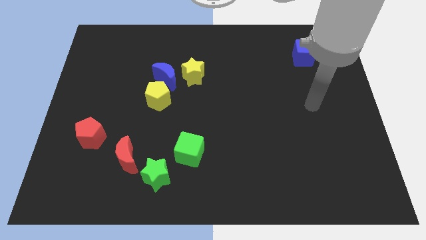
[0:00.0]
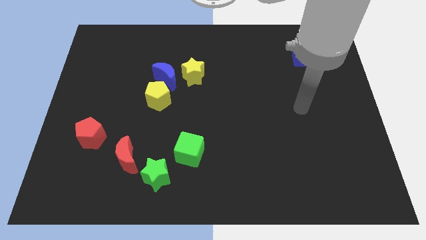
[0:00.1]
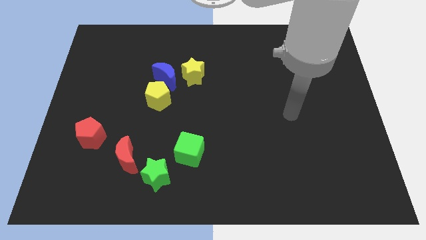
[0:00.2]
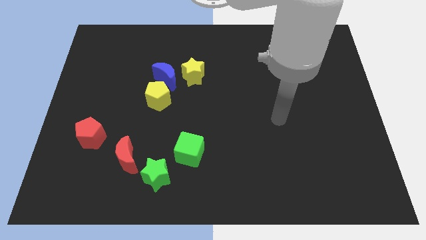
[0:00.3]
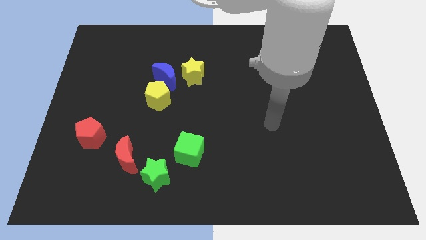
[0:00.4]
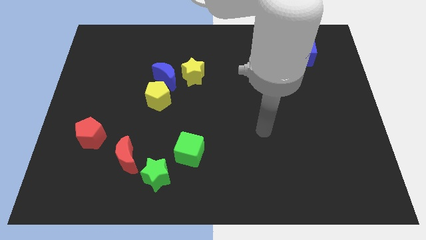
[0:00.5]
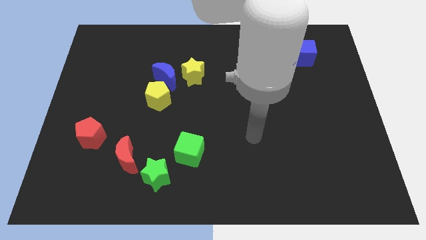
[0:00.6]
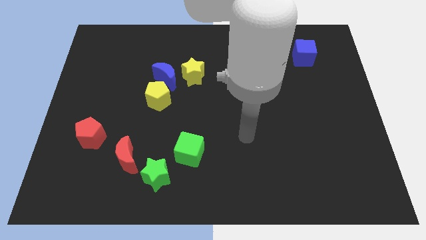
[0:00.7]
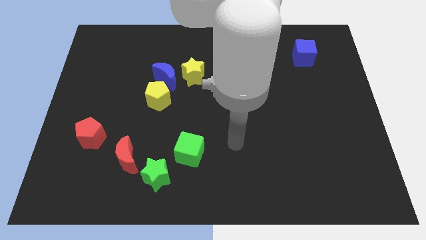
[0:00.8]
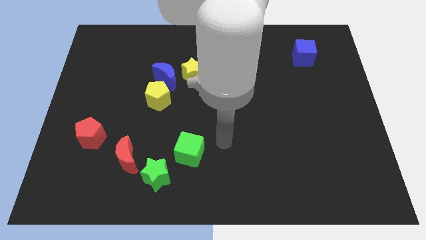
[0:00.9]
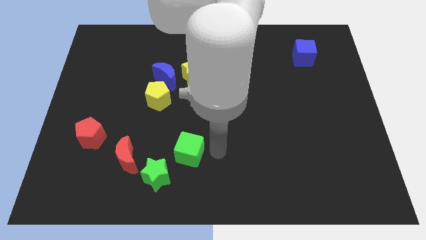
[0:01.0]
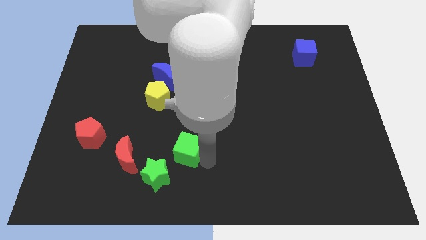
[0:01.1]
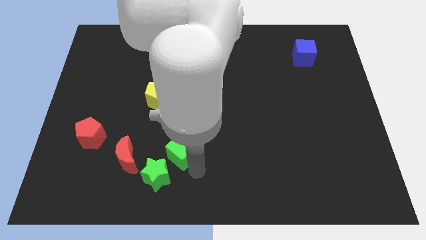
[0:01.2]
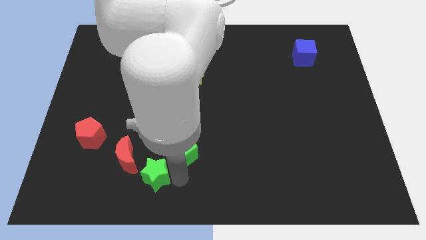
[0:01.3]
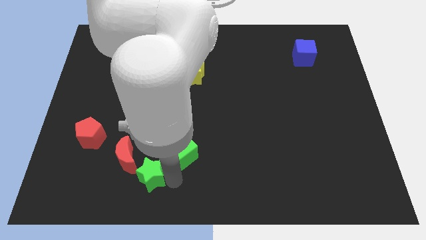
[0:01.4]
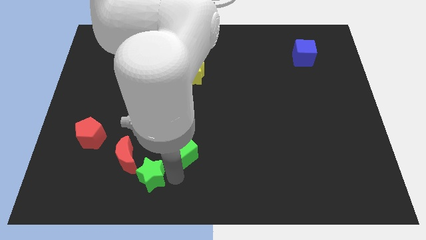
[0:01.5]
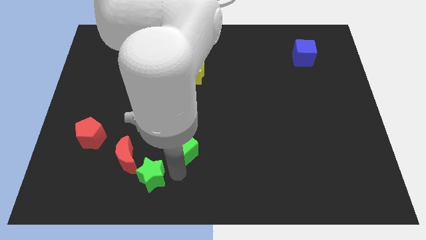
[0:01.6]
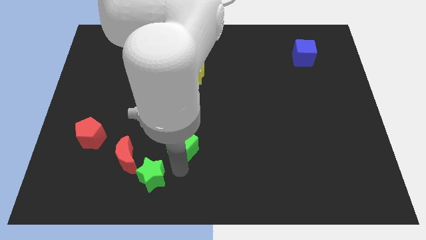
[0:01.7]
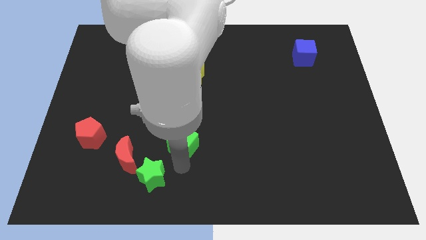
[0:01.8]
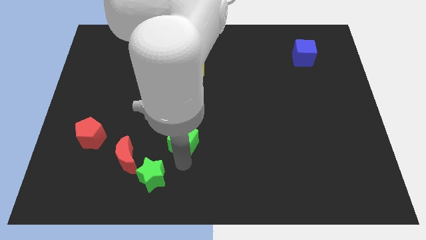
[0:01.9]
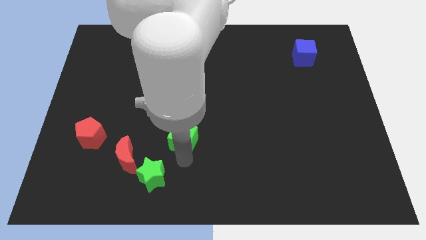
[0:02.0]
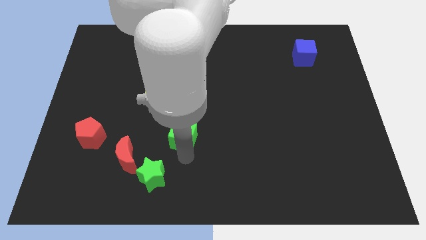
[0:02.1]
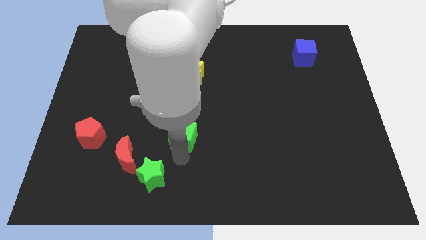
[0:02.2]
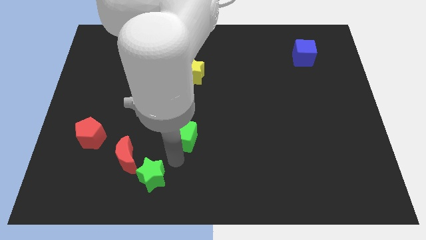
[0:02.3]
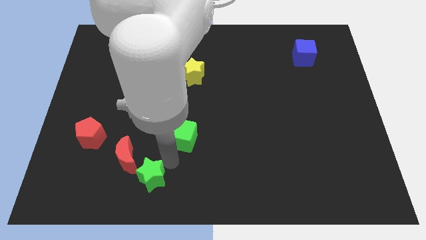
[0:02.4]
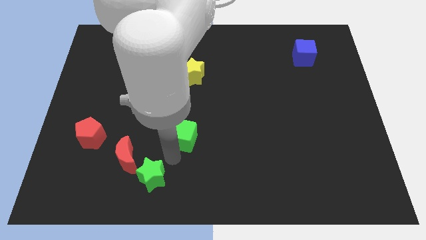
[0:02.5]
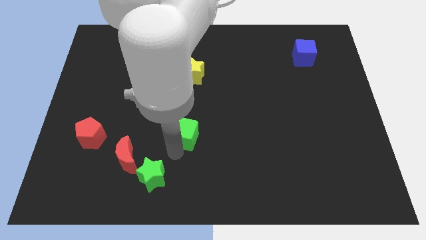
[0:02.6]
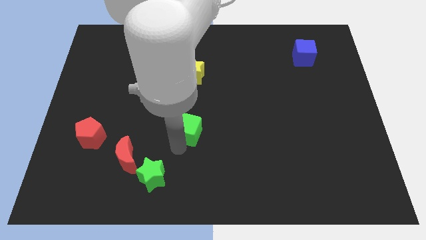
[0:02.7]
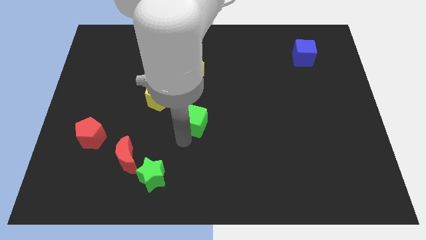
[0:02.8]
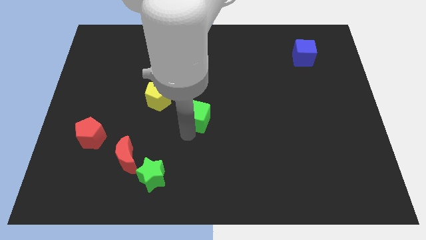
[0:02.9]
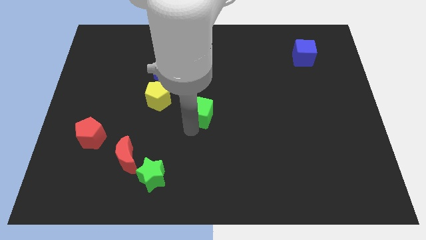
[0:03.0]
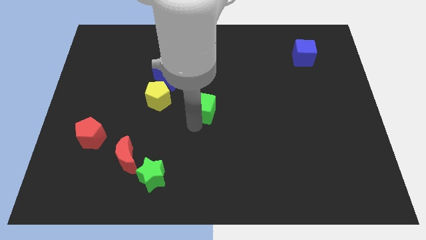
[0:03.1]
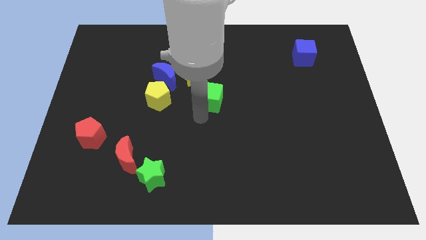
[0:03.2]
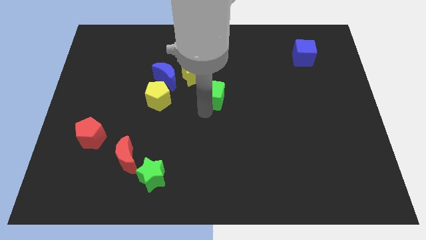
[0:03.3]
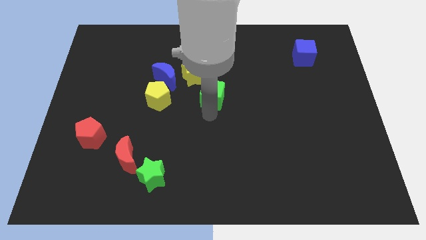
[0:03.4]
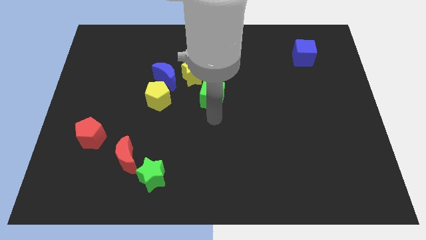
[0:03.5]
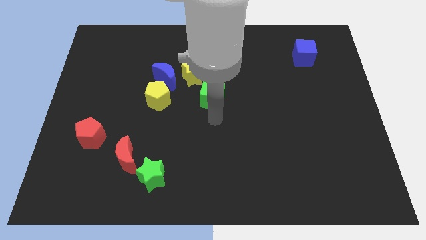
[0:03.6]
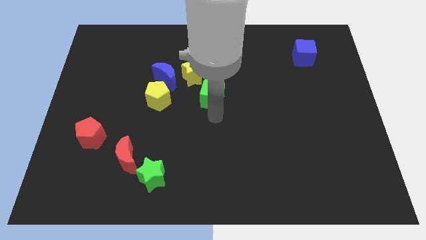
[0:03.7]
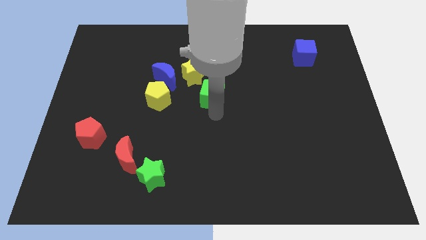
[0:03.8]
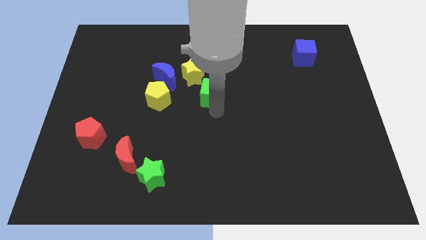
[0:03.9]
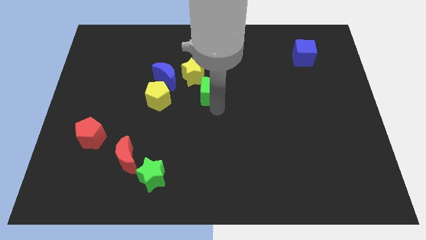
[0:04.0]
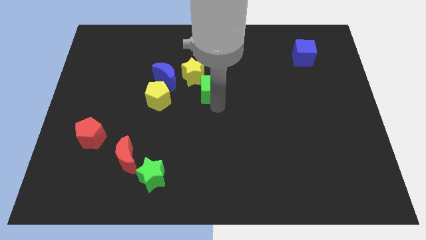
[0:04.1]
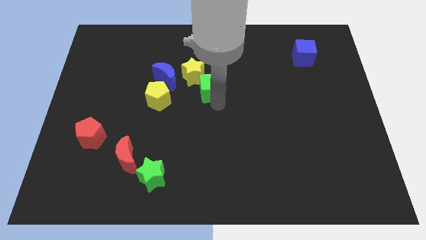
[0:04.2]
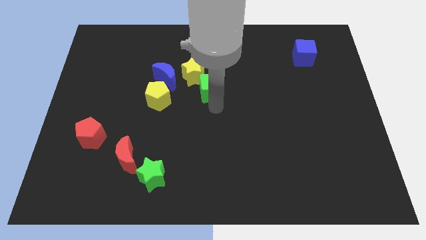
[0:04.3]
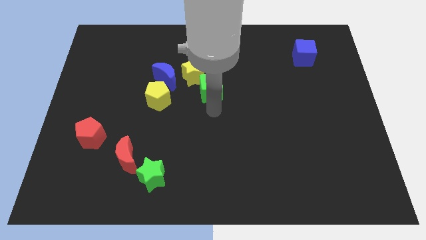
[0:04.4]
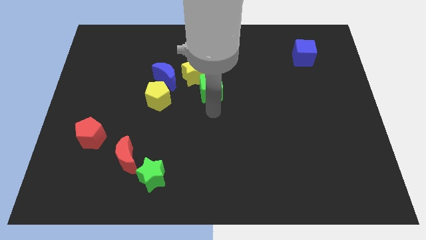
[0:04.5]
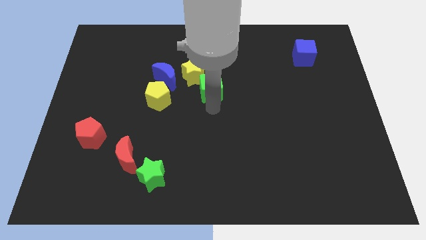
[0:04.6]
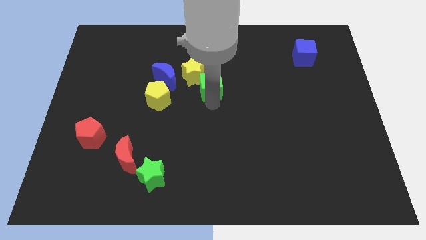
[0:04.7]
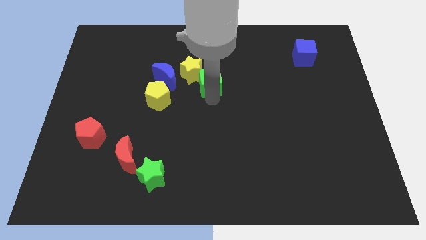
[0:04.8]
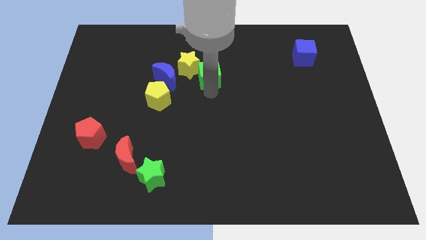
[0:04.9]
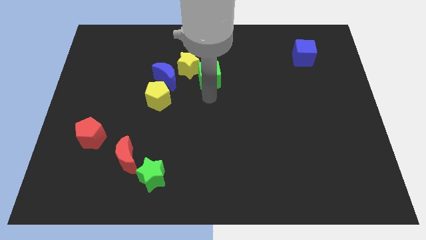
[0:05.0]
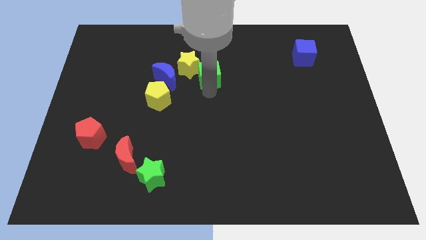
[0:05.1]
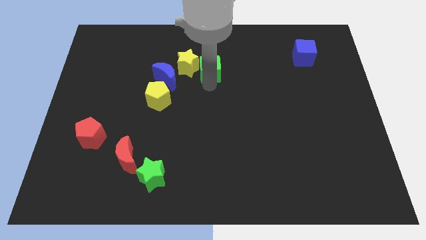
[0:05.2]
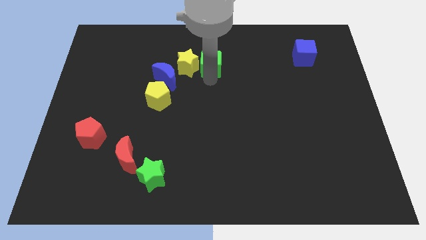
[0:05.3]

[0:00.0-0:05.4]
slide the green cube to the top right of the yellow star
